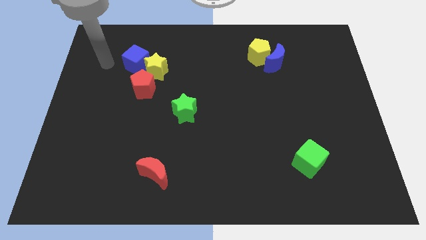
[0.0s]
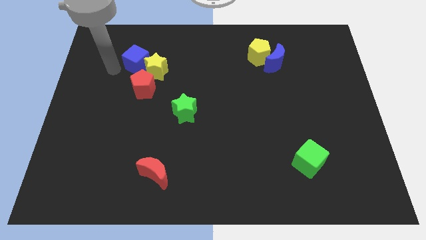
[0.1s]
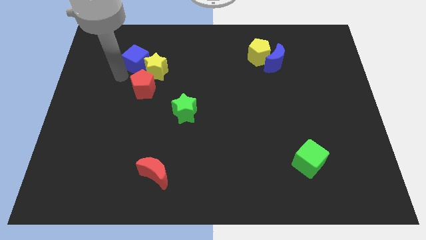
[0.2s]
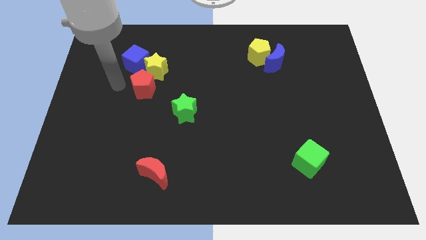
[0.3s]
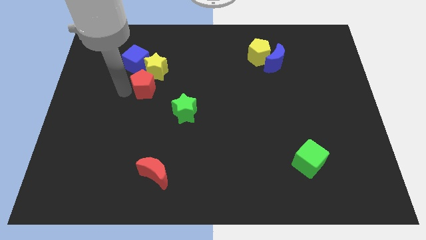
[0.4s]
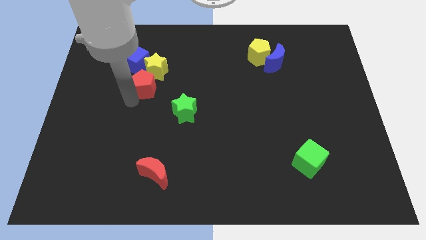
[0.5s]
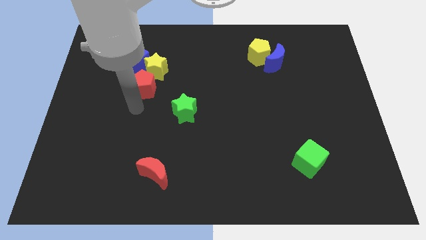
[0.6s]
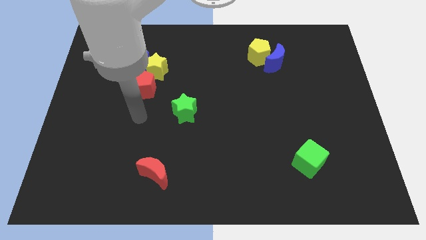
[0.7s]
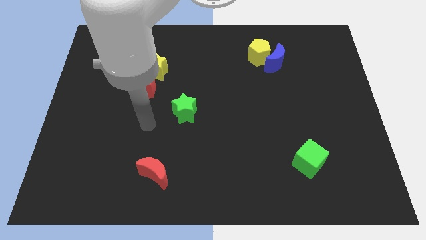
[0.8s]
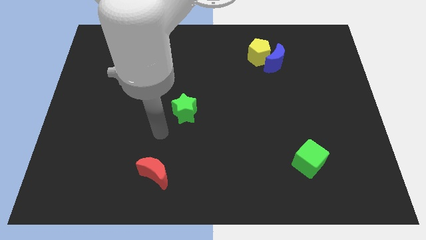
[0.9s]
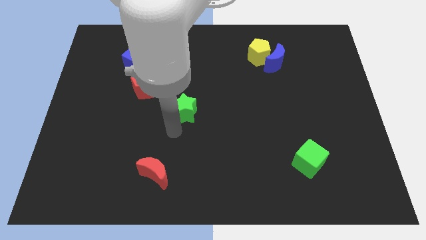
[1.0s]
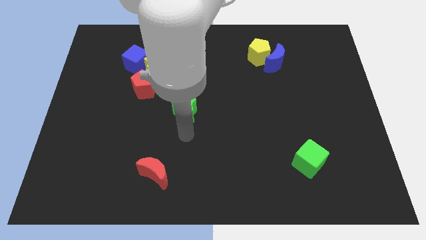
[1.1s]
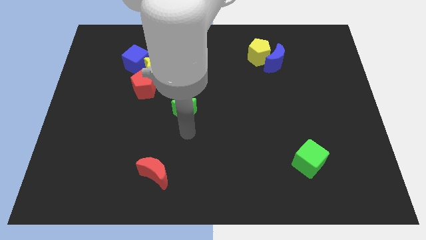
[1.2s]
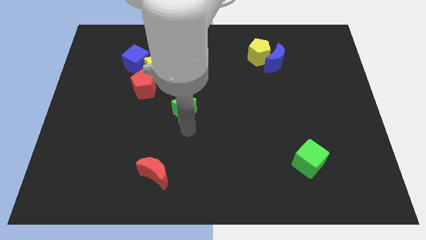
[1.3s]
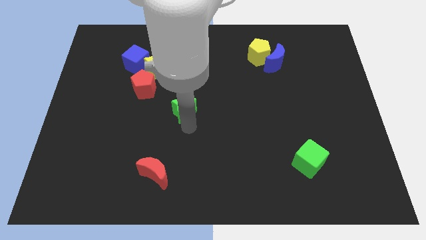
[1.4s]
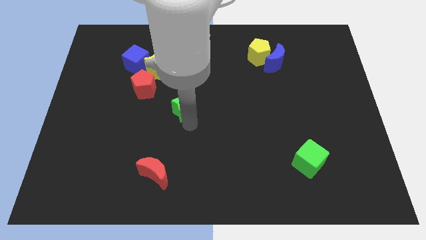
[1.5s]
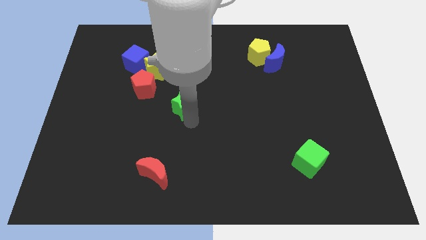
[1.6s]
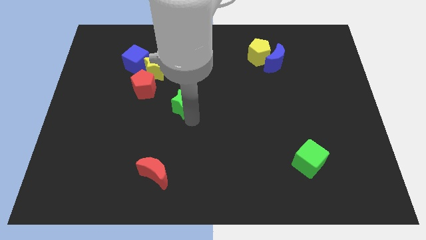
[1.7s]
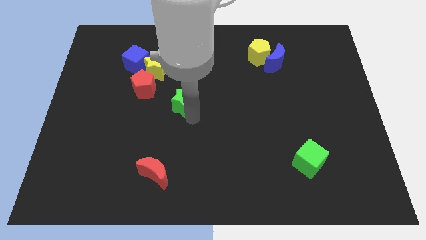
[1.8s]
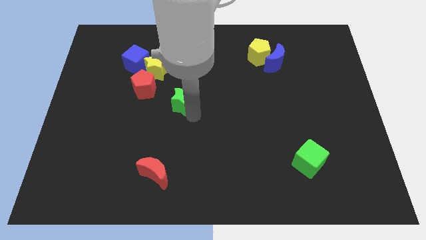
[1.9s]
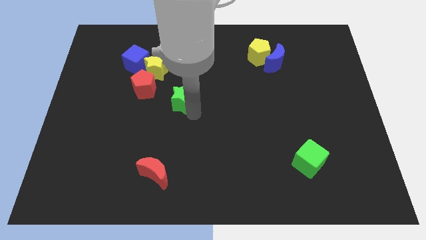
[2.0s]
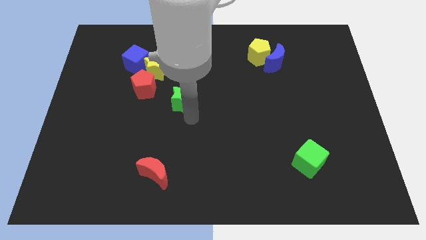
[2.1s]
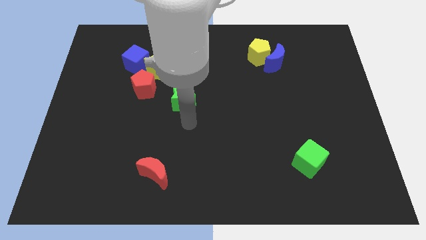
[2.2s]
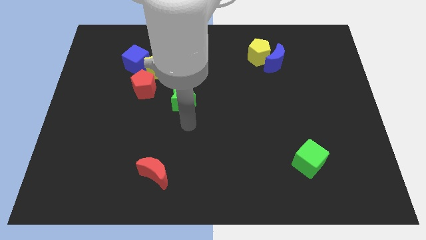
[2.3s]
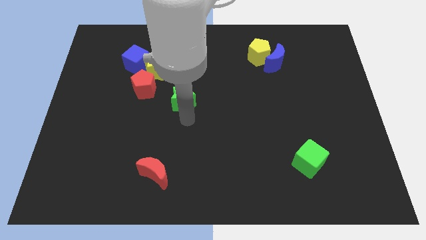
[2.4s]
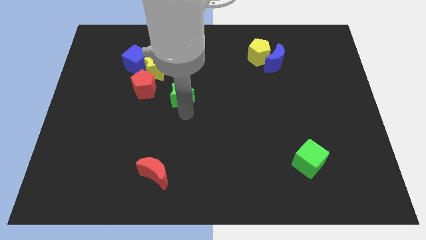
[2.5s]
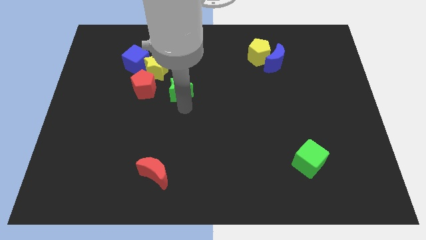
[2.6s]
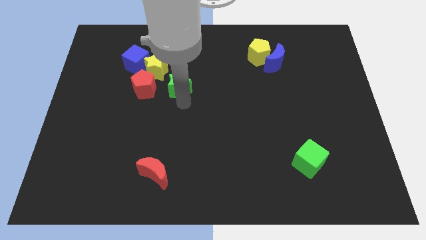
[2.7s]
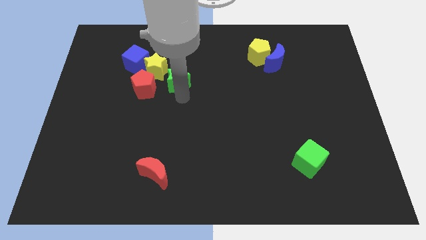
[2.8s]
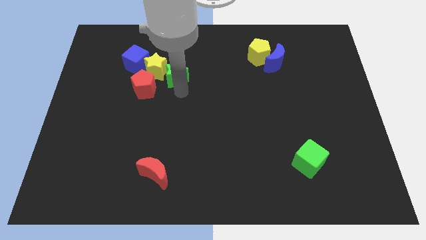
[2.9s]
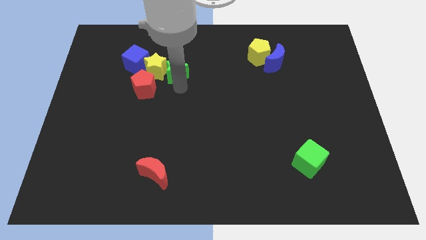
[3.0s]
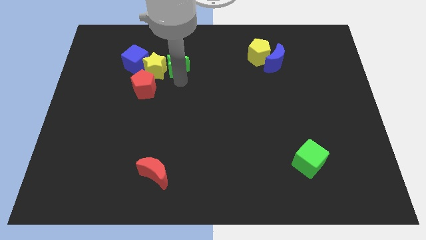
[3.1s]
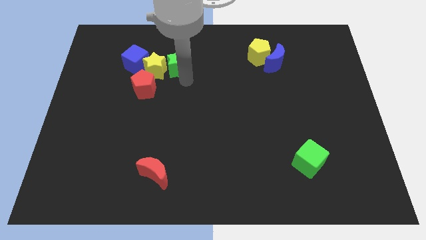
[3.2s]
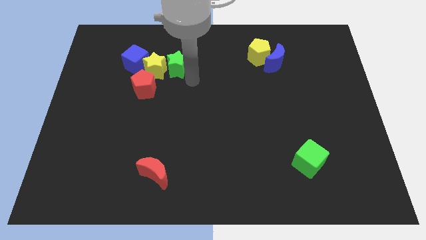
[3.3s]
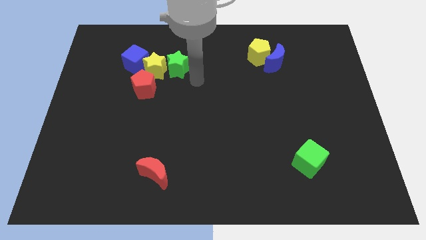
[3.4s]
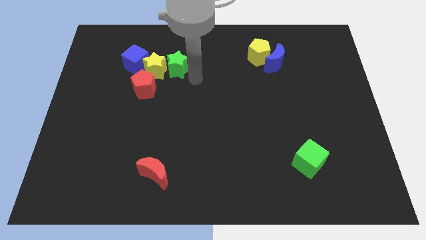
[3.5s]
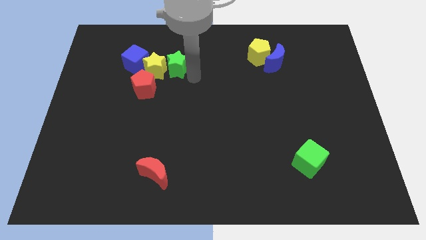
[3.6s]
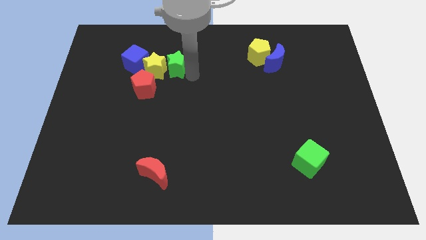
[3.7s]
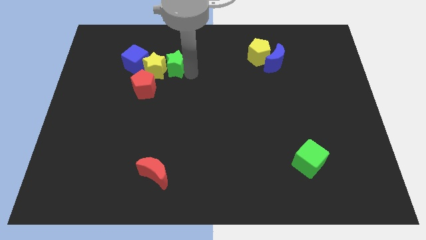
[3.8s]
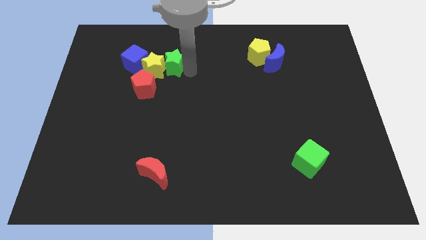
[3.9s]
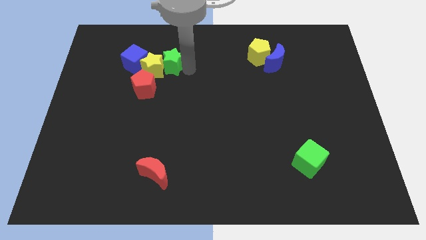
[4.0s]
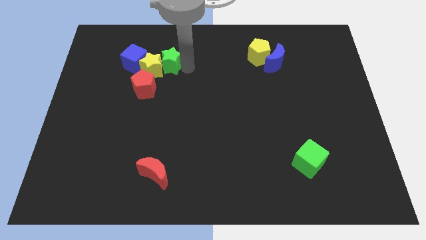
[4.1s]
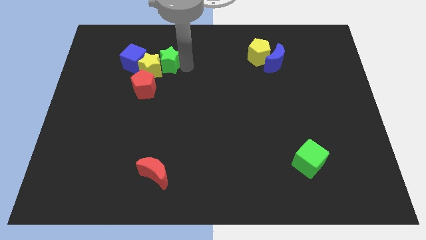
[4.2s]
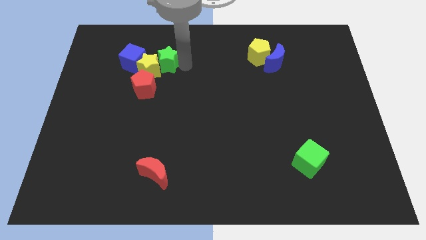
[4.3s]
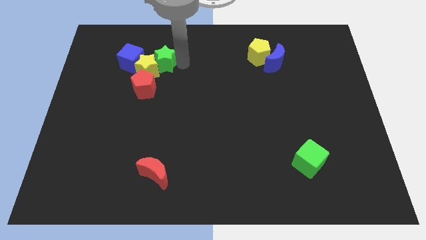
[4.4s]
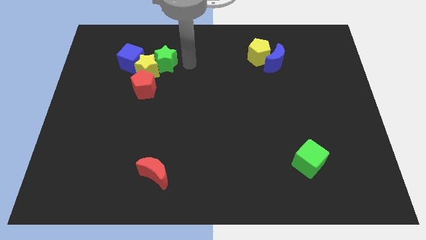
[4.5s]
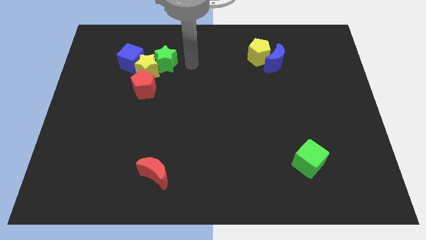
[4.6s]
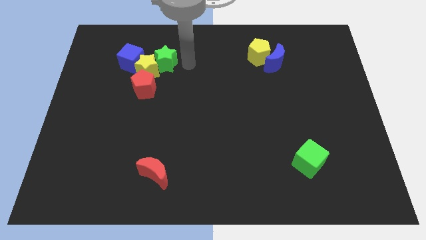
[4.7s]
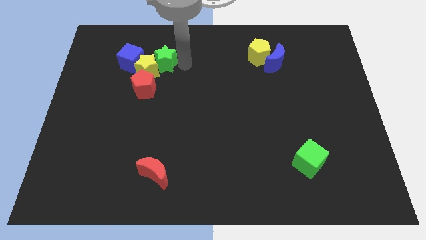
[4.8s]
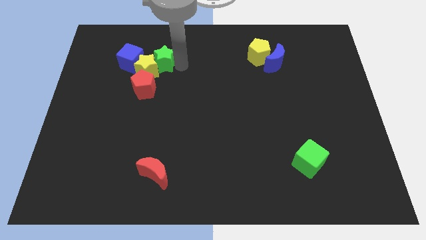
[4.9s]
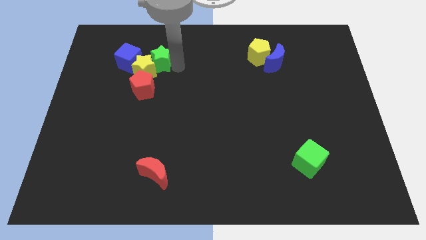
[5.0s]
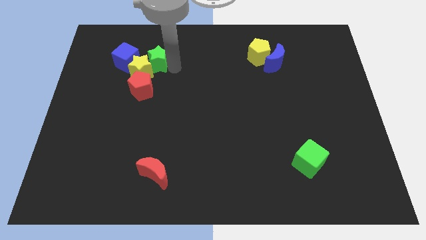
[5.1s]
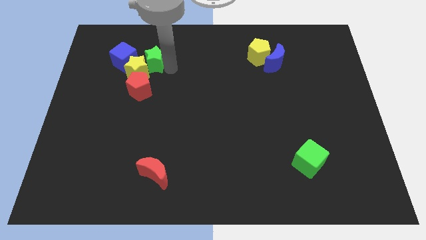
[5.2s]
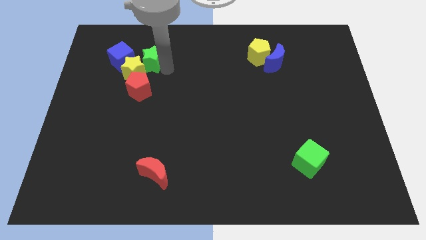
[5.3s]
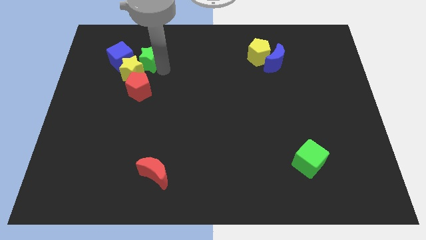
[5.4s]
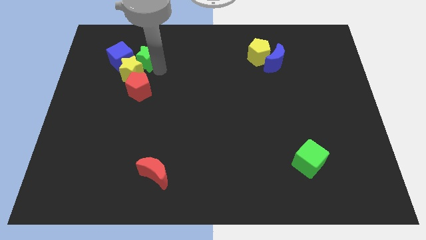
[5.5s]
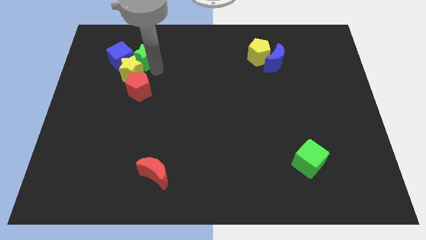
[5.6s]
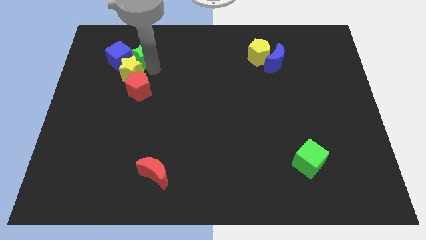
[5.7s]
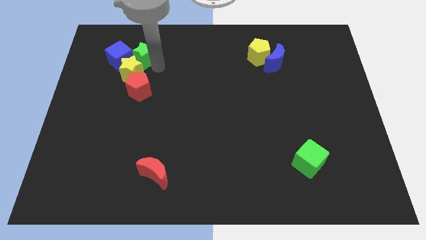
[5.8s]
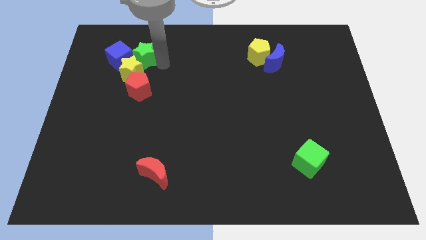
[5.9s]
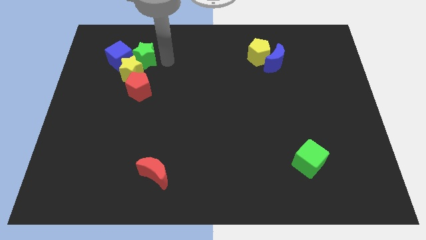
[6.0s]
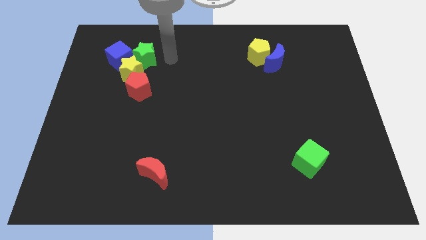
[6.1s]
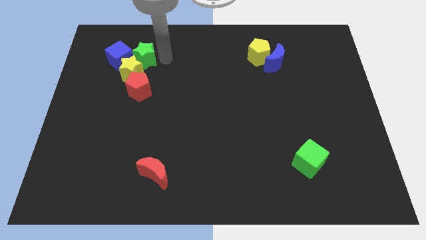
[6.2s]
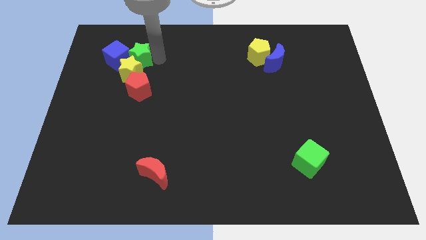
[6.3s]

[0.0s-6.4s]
slide the green star close to the blue cube

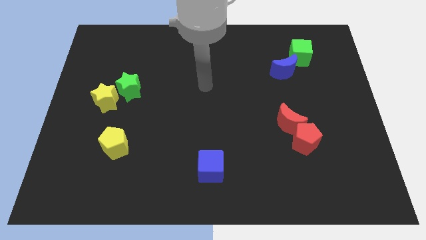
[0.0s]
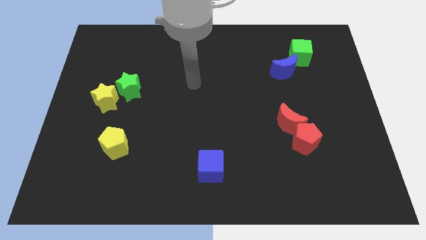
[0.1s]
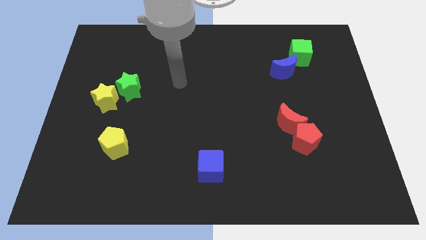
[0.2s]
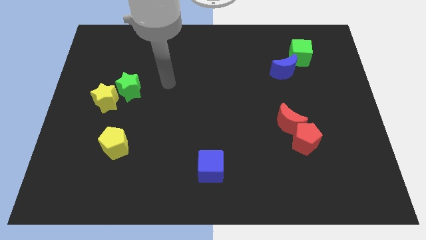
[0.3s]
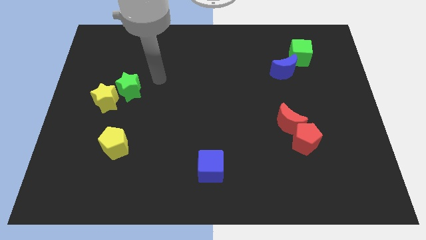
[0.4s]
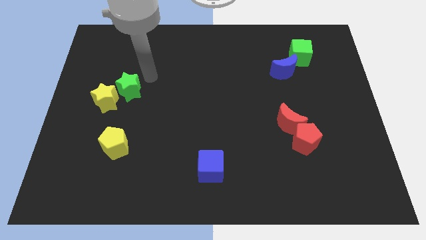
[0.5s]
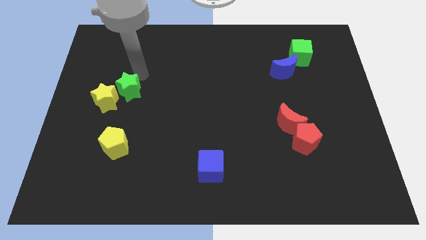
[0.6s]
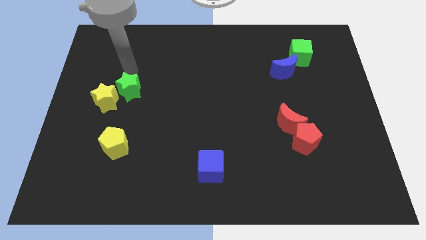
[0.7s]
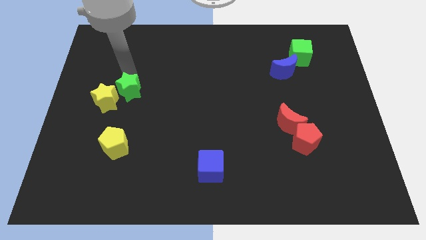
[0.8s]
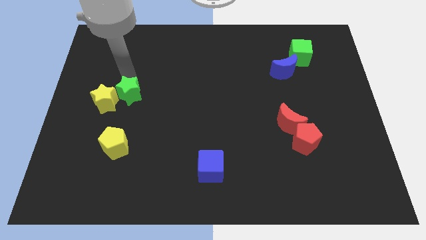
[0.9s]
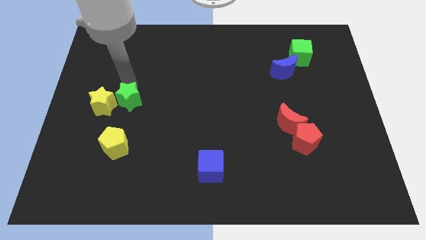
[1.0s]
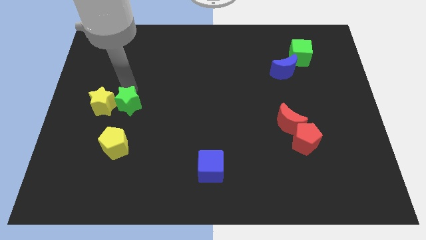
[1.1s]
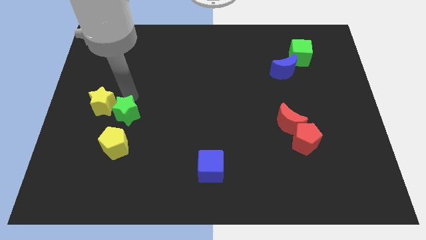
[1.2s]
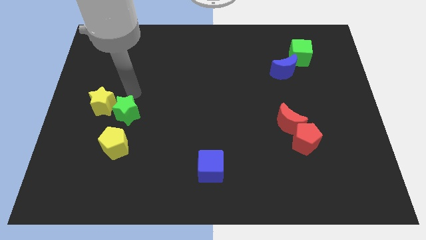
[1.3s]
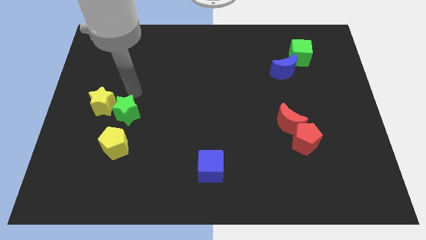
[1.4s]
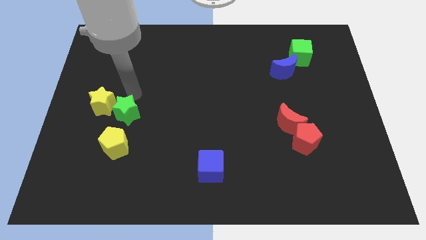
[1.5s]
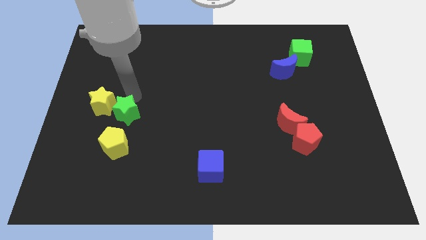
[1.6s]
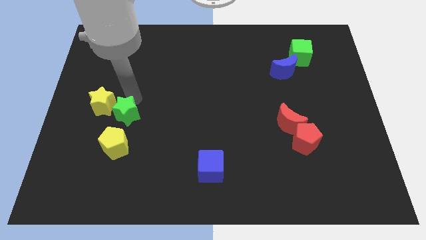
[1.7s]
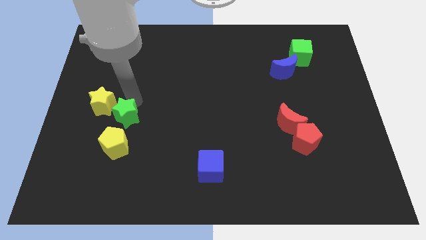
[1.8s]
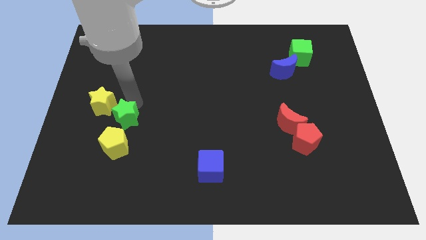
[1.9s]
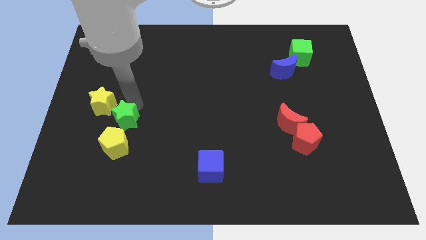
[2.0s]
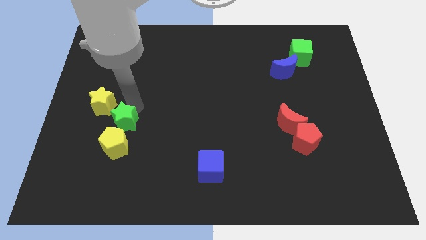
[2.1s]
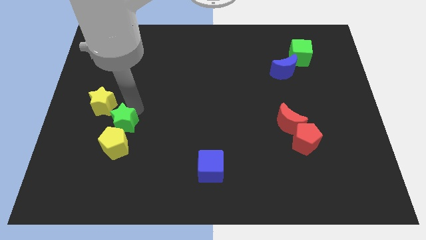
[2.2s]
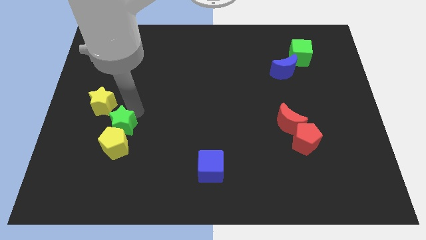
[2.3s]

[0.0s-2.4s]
move the green star close to the yellow pentagon
